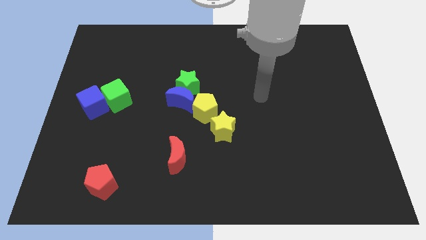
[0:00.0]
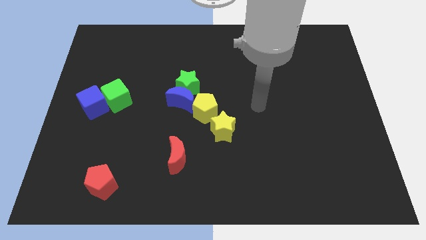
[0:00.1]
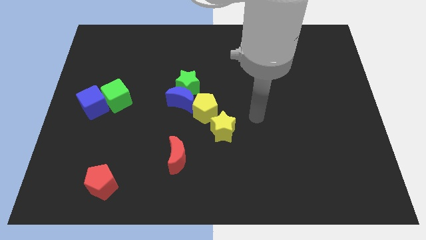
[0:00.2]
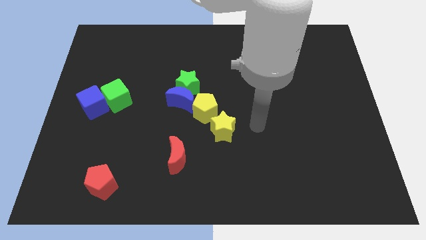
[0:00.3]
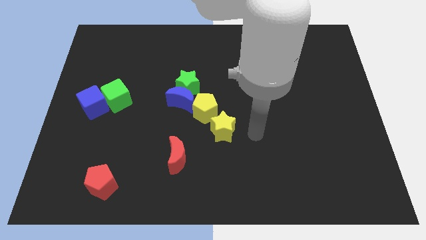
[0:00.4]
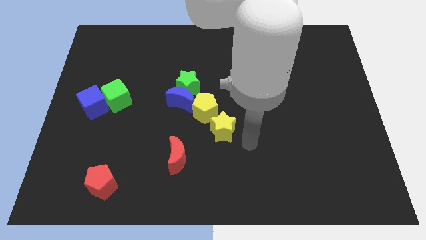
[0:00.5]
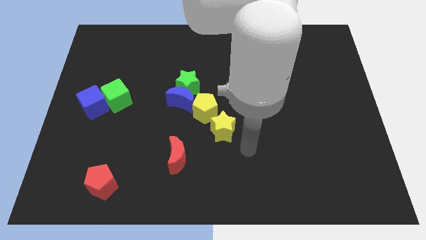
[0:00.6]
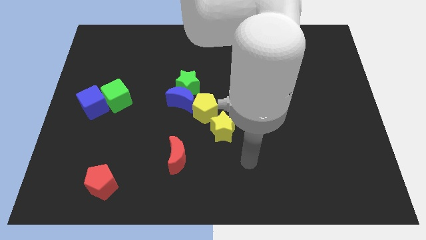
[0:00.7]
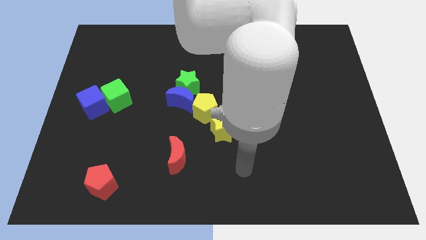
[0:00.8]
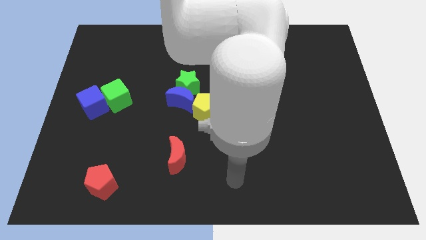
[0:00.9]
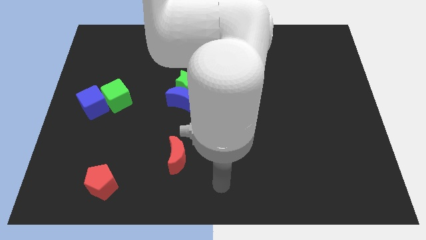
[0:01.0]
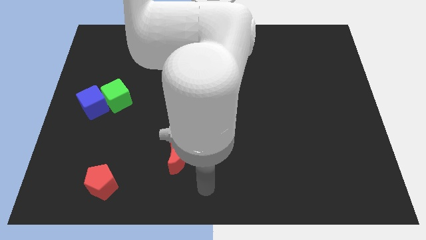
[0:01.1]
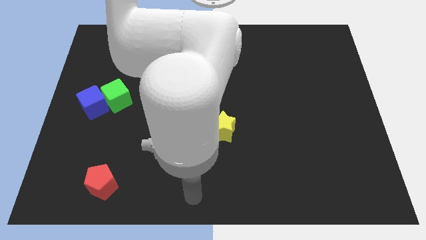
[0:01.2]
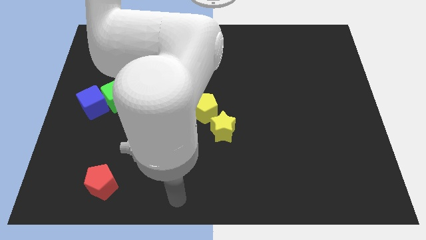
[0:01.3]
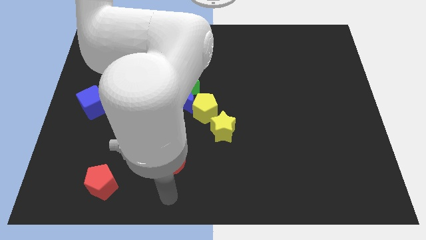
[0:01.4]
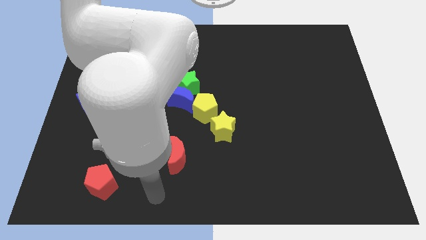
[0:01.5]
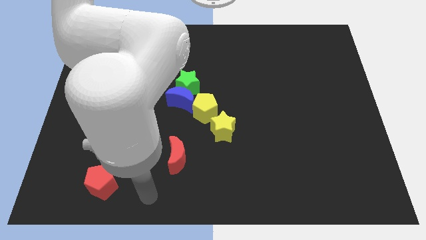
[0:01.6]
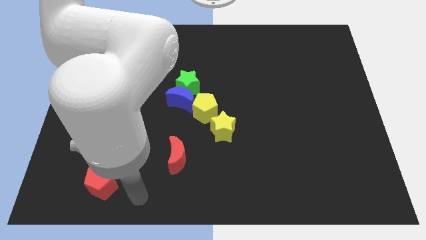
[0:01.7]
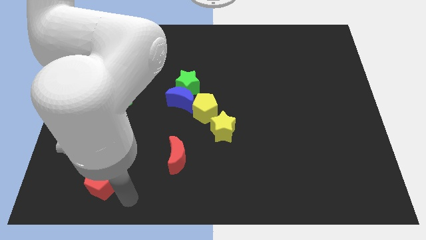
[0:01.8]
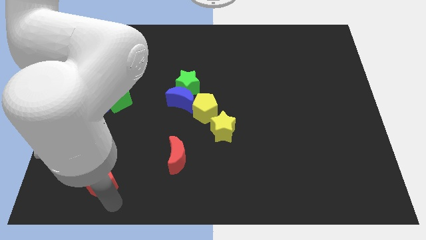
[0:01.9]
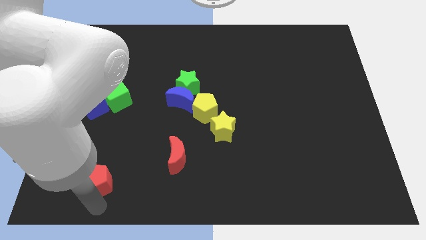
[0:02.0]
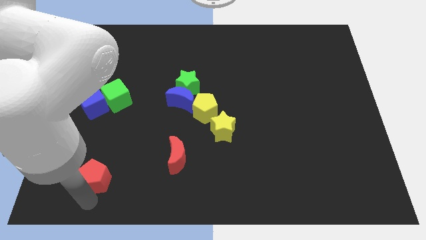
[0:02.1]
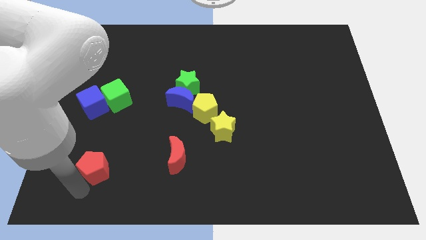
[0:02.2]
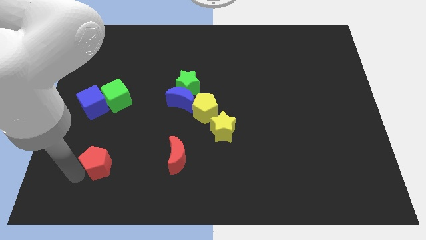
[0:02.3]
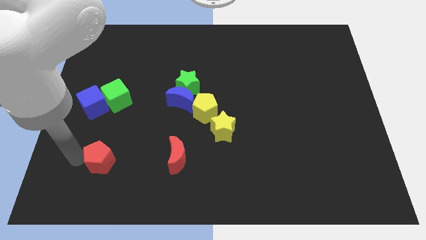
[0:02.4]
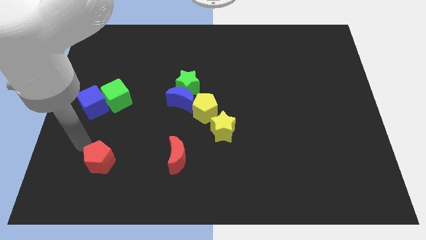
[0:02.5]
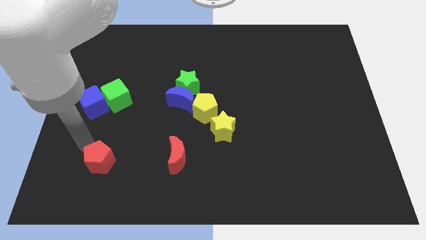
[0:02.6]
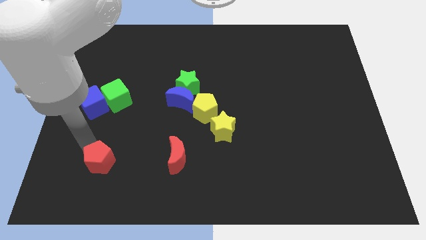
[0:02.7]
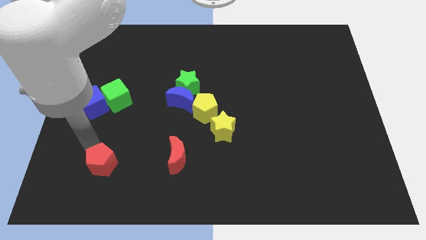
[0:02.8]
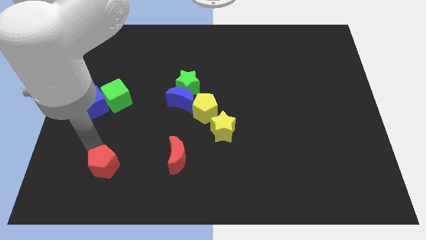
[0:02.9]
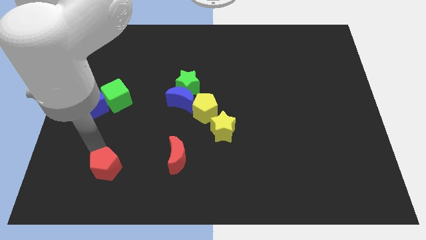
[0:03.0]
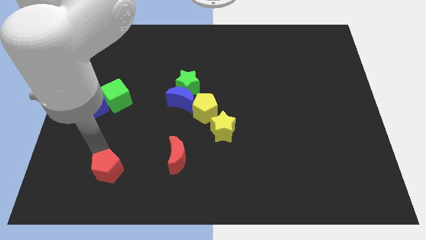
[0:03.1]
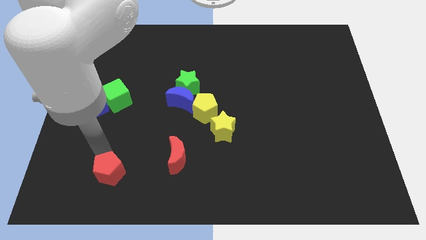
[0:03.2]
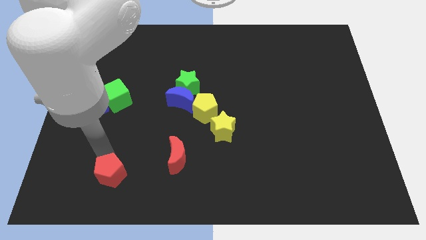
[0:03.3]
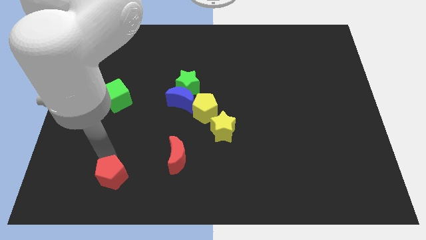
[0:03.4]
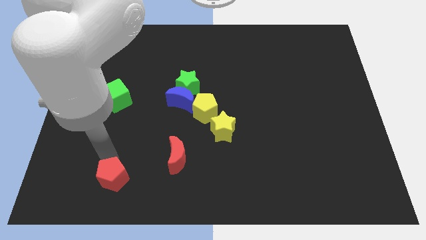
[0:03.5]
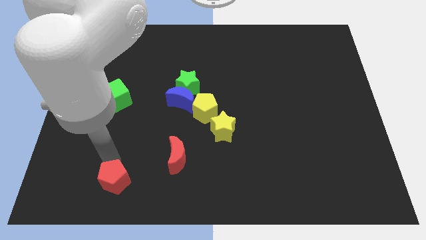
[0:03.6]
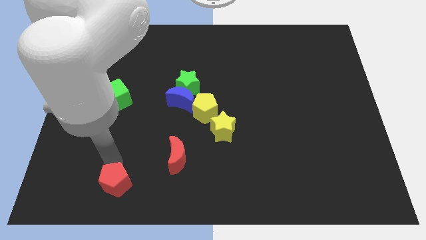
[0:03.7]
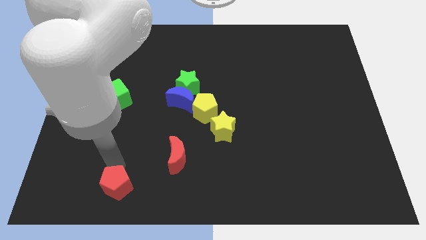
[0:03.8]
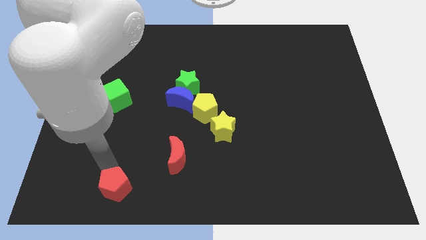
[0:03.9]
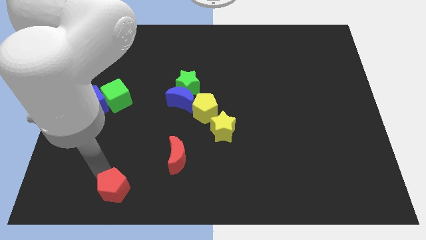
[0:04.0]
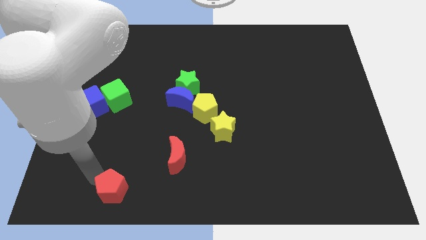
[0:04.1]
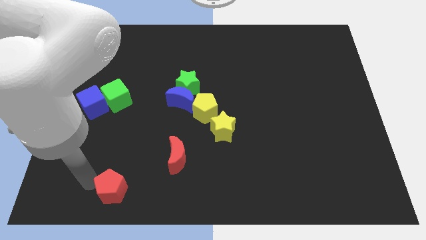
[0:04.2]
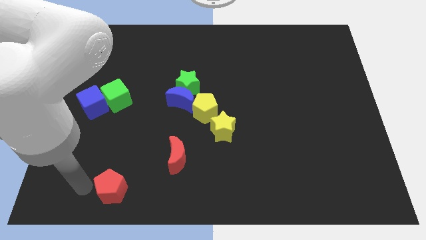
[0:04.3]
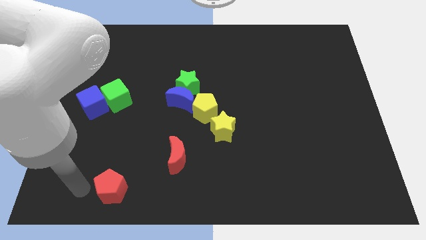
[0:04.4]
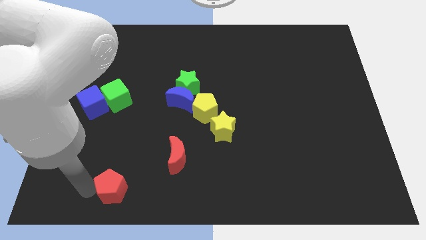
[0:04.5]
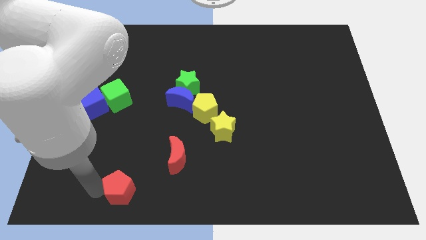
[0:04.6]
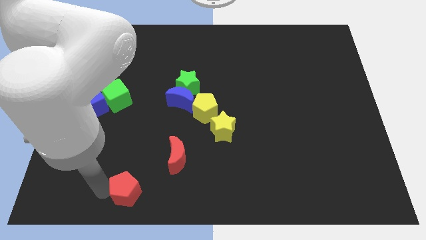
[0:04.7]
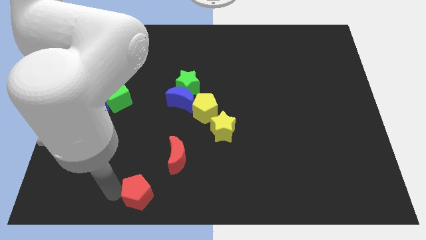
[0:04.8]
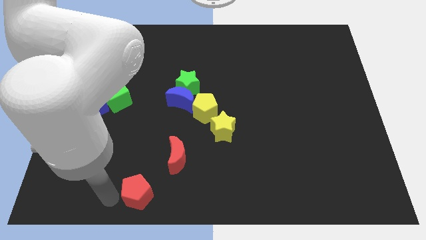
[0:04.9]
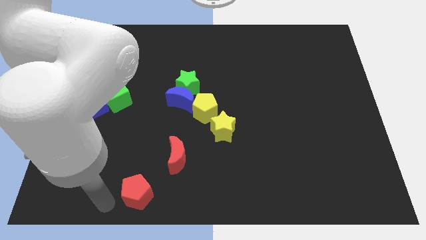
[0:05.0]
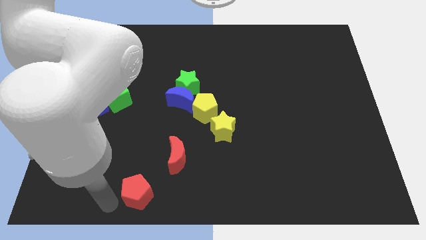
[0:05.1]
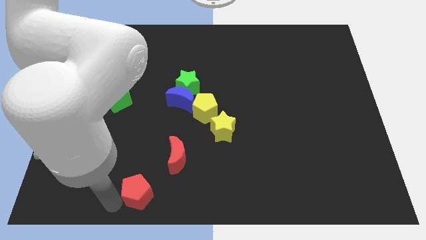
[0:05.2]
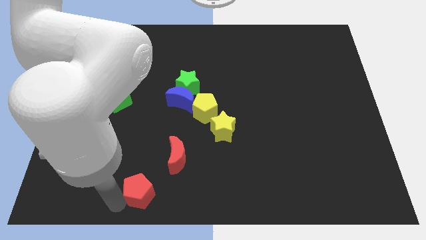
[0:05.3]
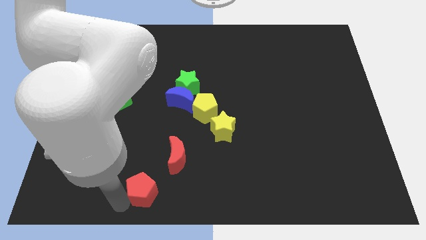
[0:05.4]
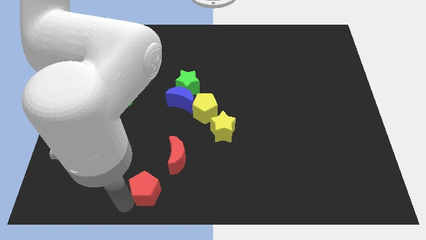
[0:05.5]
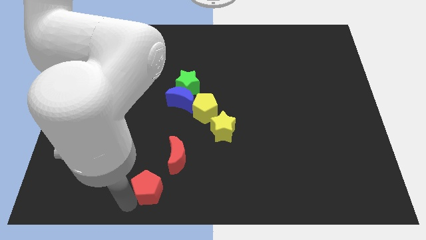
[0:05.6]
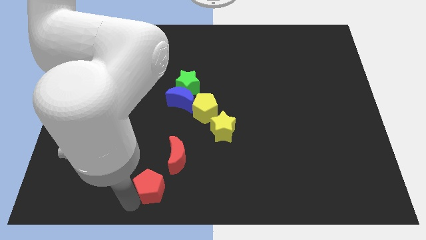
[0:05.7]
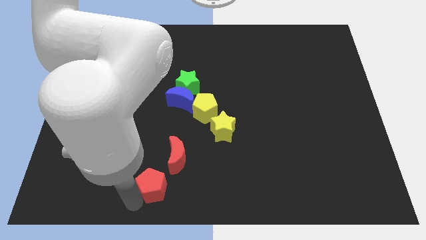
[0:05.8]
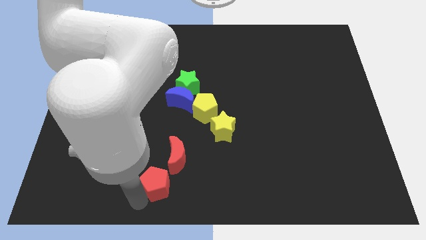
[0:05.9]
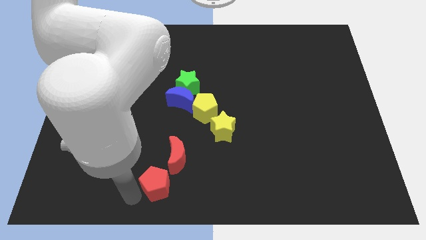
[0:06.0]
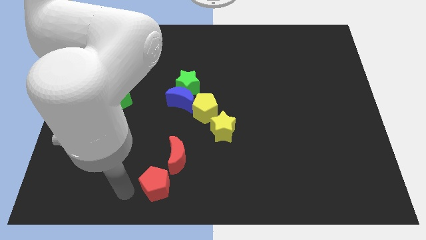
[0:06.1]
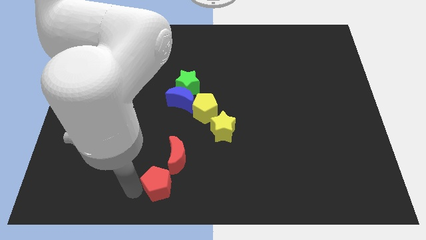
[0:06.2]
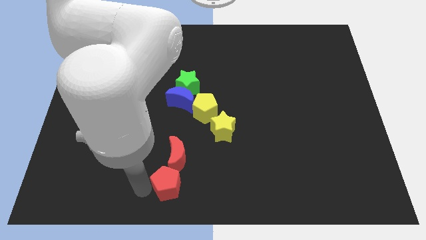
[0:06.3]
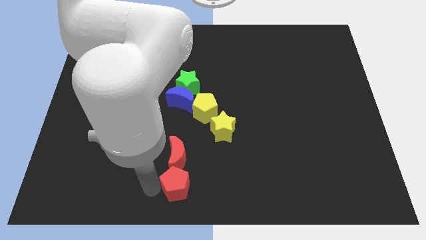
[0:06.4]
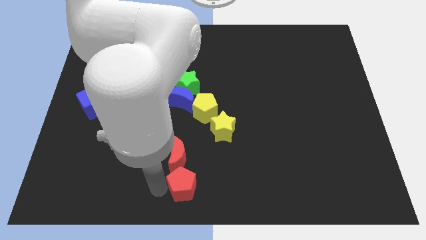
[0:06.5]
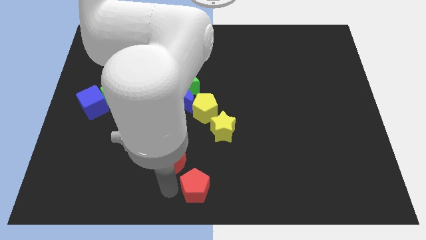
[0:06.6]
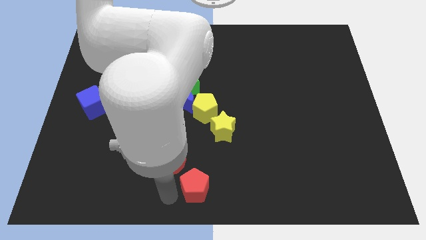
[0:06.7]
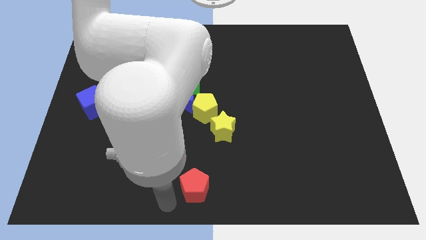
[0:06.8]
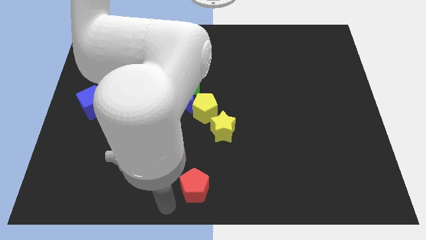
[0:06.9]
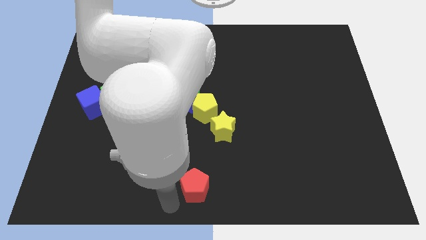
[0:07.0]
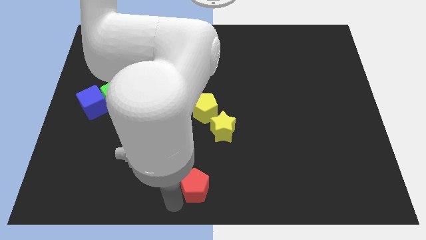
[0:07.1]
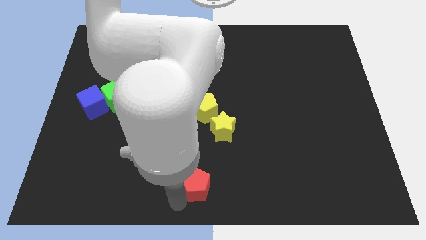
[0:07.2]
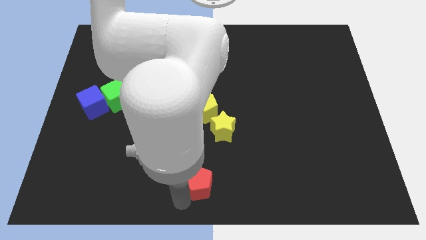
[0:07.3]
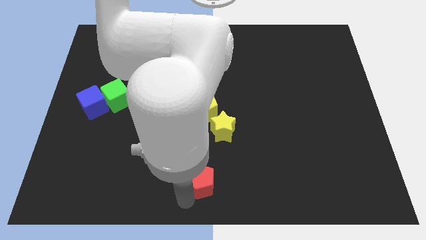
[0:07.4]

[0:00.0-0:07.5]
put the red pentagon to the bottom of the yellow star

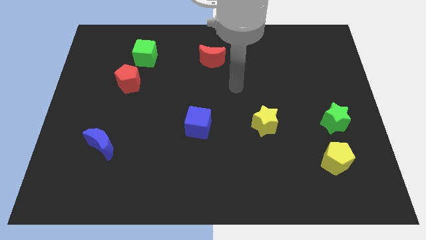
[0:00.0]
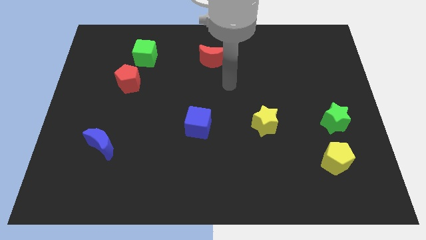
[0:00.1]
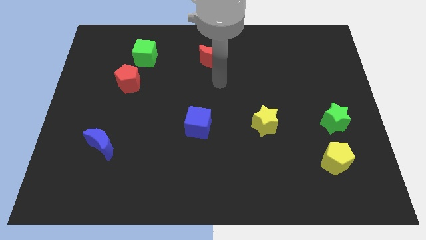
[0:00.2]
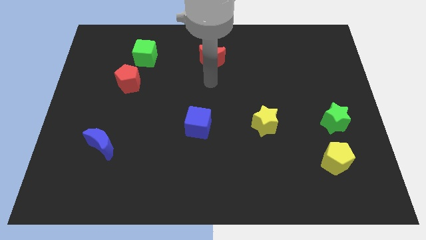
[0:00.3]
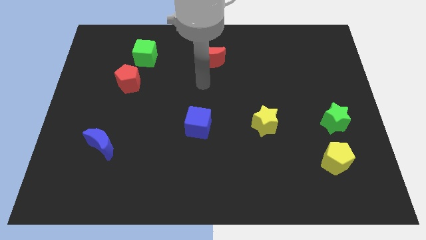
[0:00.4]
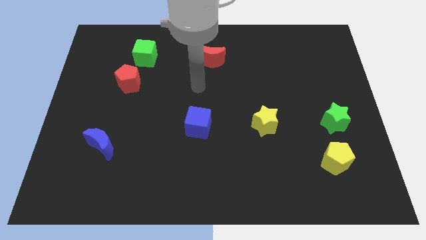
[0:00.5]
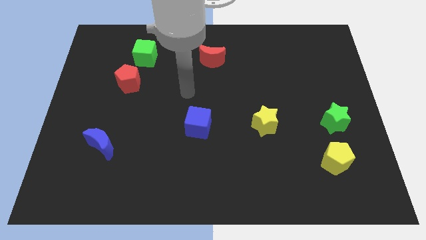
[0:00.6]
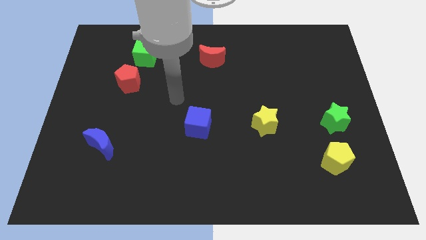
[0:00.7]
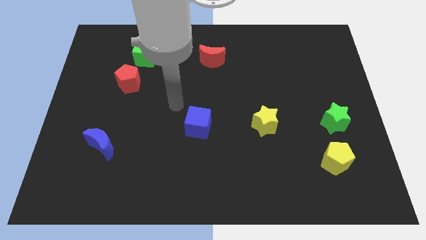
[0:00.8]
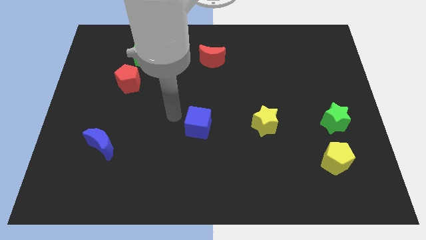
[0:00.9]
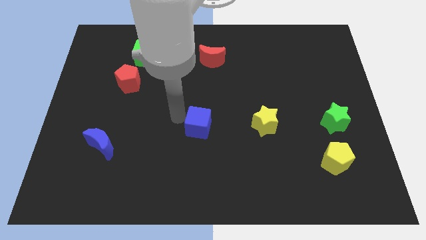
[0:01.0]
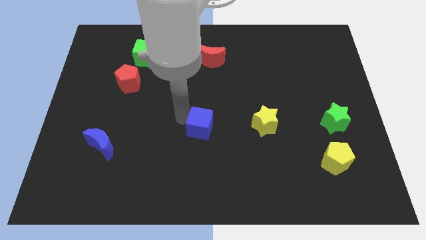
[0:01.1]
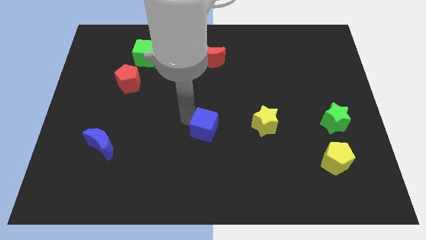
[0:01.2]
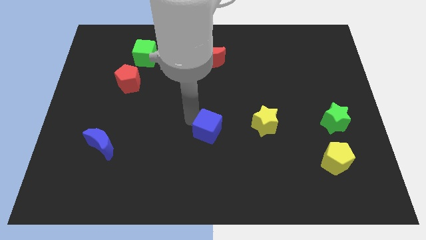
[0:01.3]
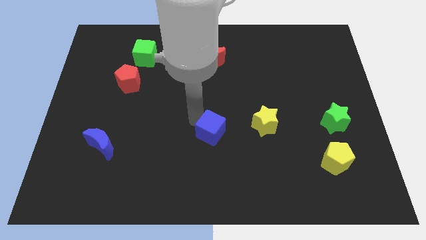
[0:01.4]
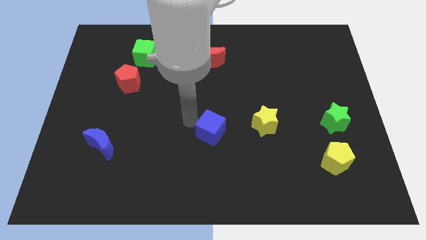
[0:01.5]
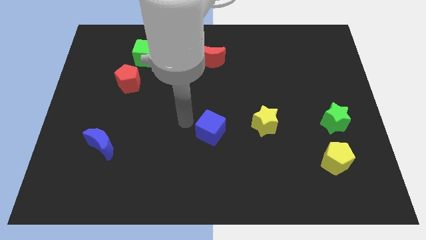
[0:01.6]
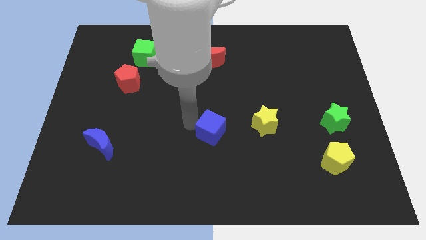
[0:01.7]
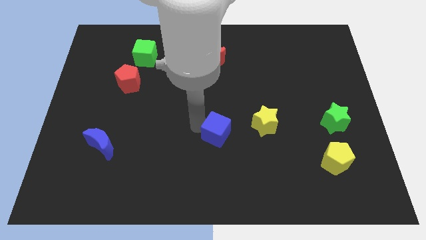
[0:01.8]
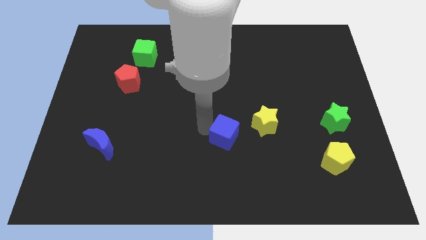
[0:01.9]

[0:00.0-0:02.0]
put the blue cube to the bottom left side of the yellow star
